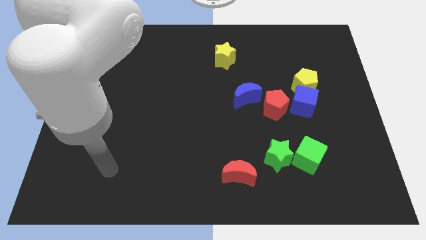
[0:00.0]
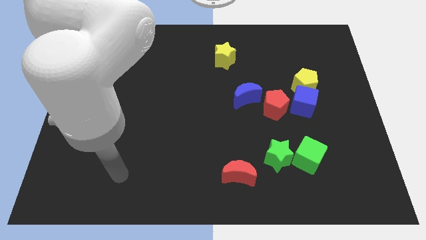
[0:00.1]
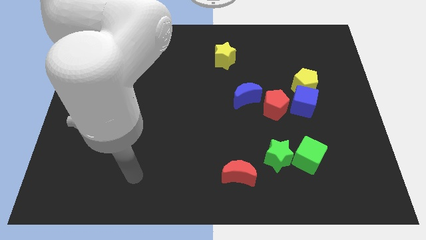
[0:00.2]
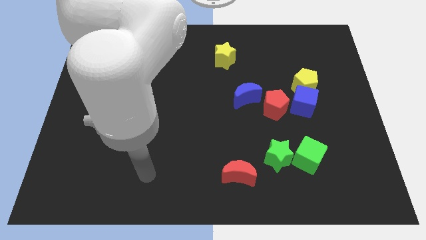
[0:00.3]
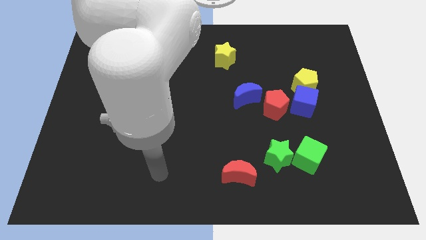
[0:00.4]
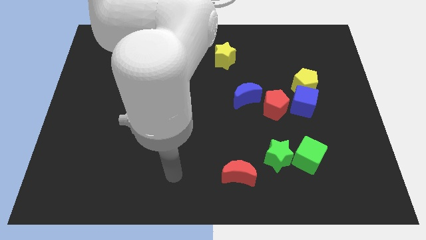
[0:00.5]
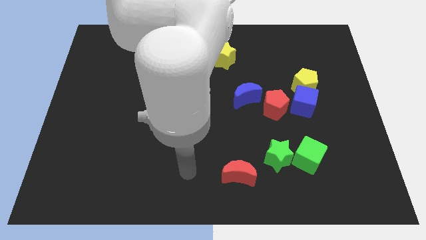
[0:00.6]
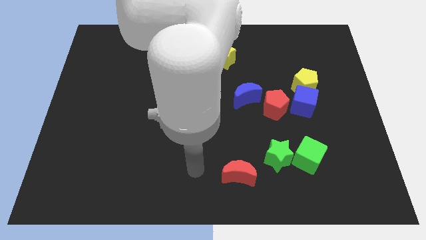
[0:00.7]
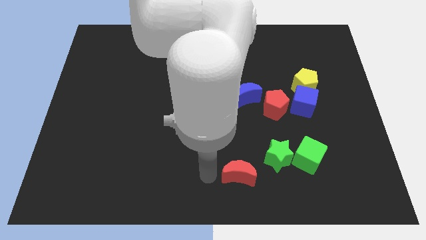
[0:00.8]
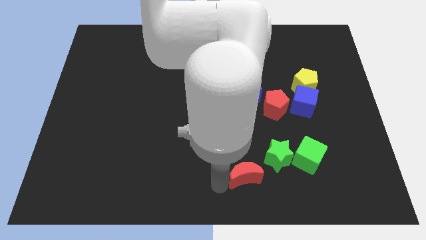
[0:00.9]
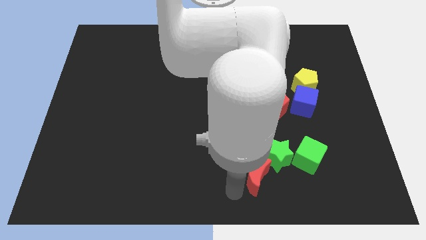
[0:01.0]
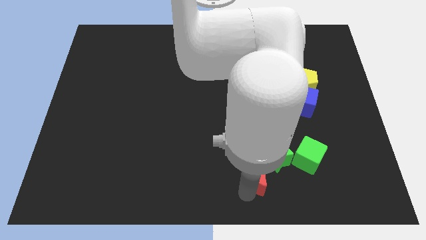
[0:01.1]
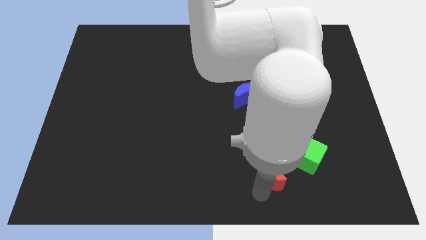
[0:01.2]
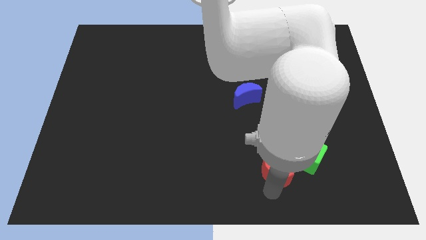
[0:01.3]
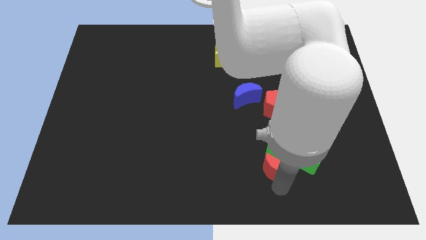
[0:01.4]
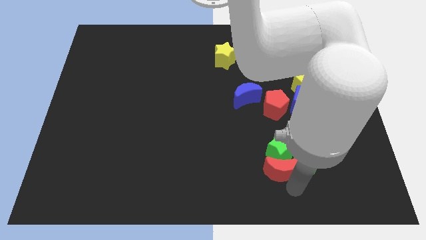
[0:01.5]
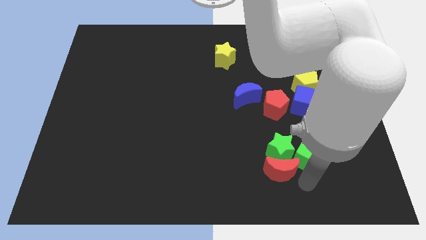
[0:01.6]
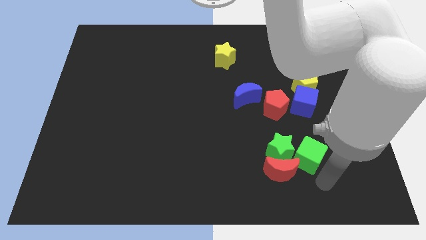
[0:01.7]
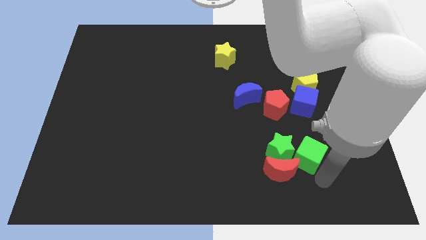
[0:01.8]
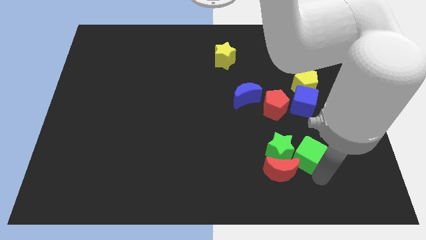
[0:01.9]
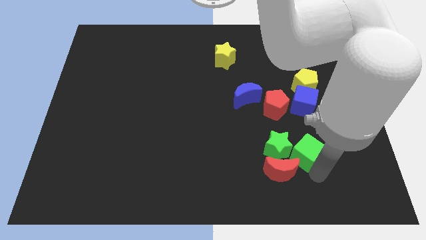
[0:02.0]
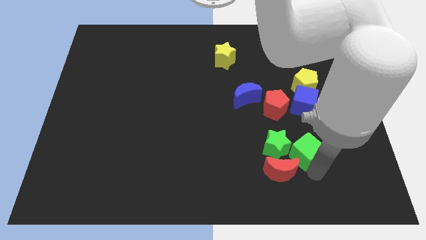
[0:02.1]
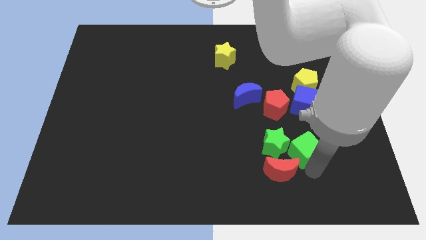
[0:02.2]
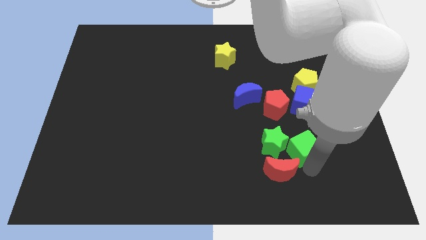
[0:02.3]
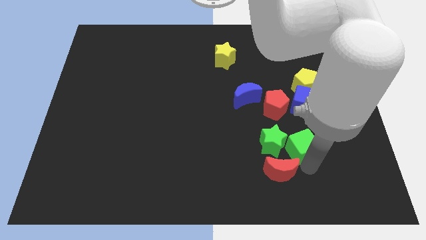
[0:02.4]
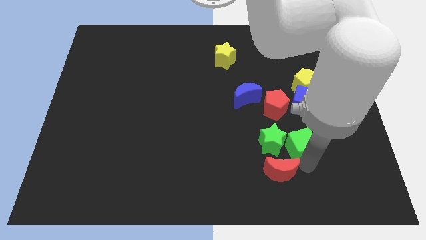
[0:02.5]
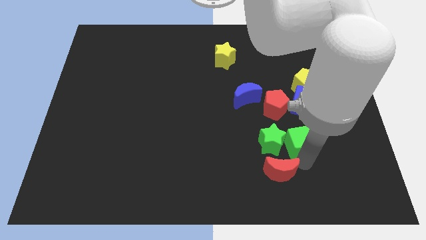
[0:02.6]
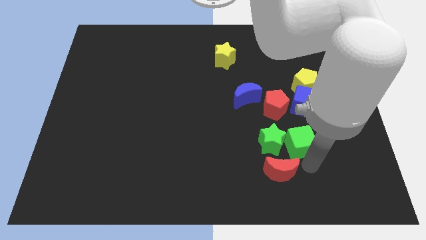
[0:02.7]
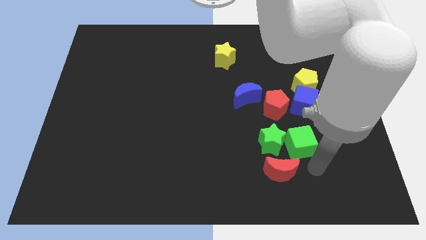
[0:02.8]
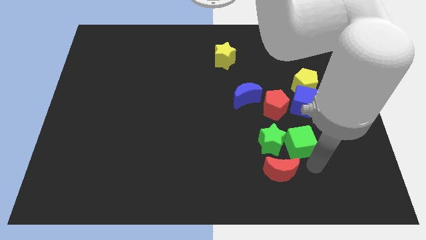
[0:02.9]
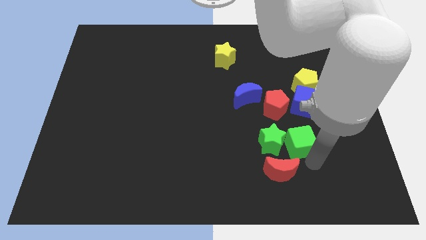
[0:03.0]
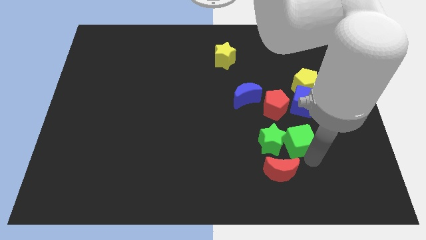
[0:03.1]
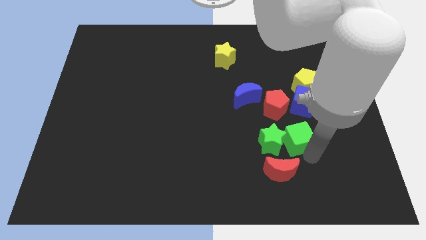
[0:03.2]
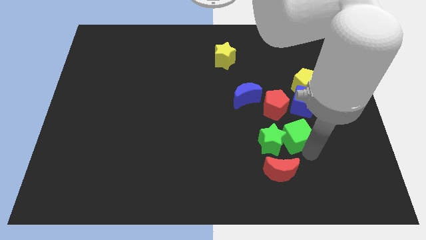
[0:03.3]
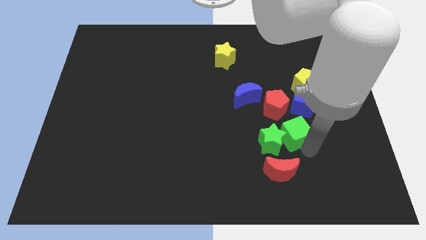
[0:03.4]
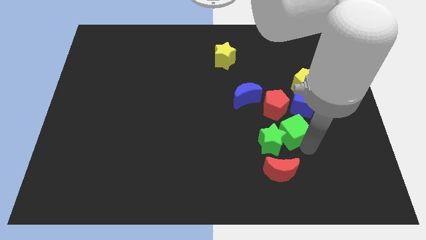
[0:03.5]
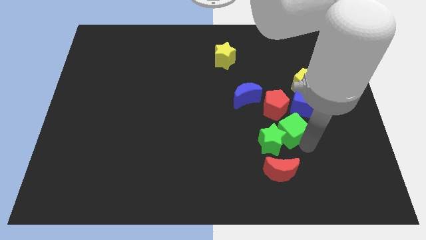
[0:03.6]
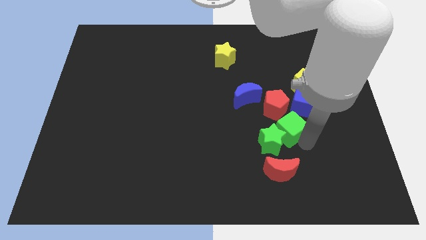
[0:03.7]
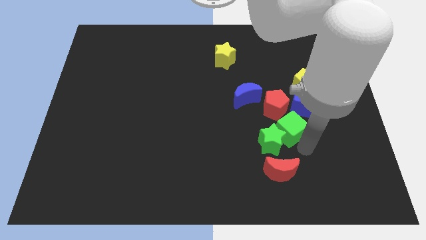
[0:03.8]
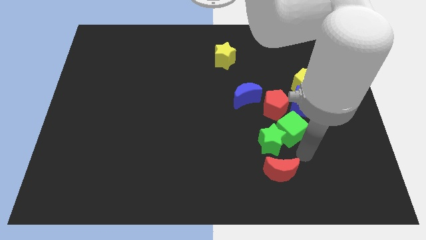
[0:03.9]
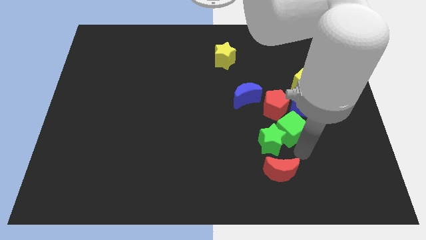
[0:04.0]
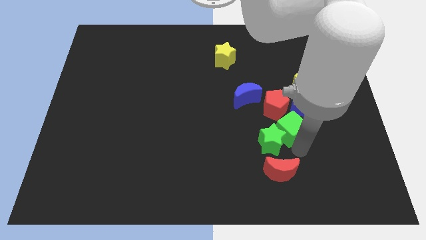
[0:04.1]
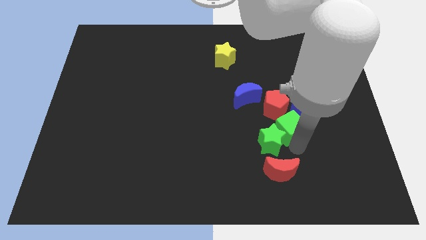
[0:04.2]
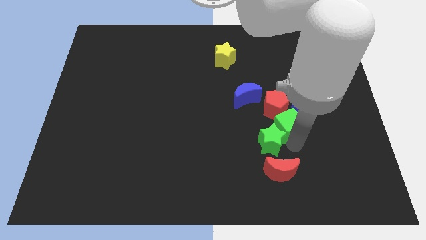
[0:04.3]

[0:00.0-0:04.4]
slide the green cube to the red pentagon

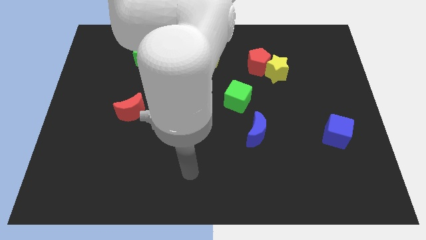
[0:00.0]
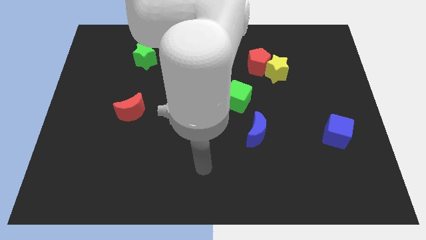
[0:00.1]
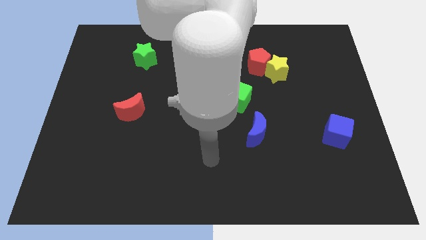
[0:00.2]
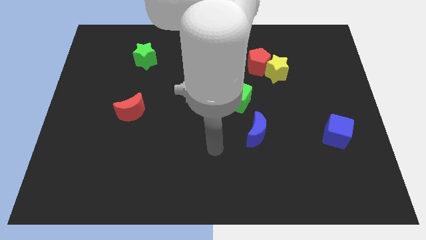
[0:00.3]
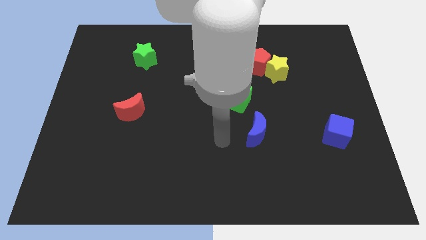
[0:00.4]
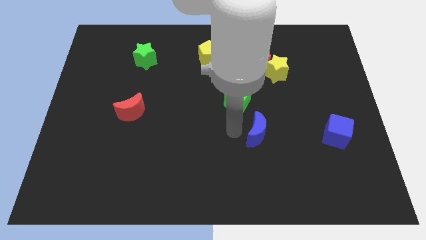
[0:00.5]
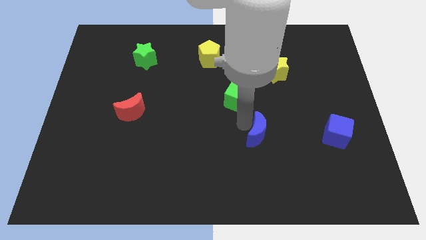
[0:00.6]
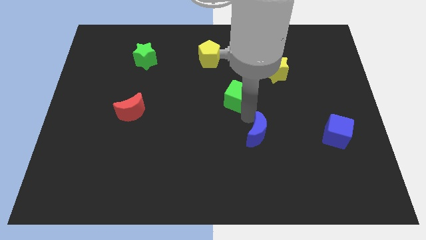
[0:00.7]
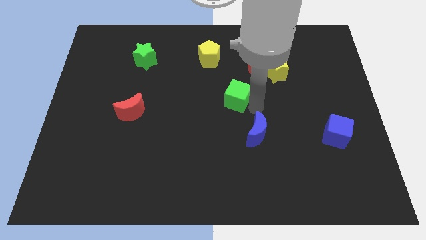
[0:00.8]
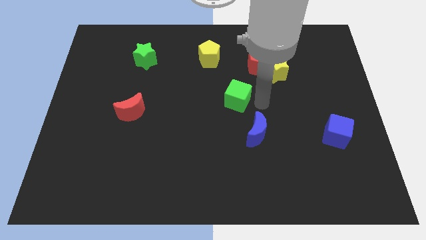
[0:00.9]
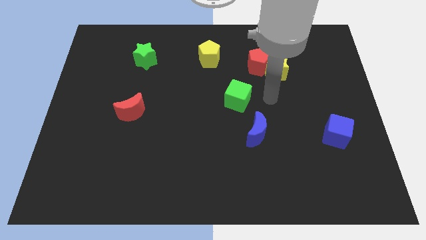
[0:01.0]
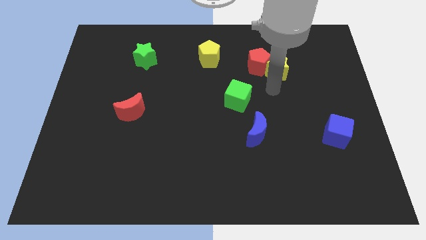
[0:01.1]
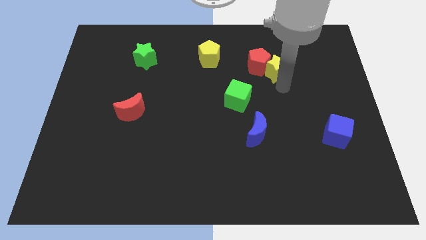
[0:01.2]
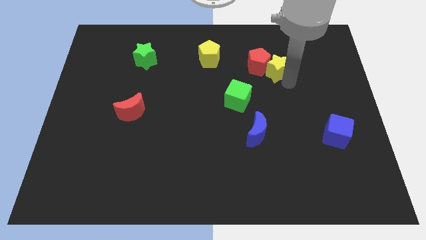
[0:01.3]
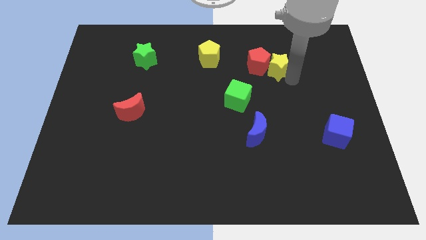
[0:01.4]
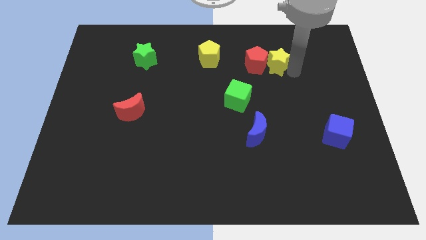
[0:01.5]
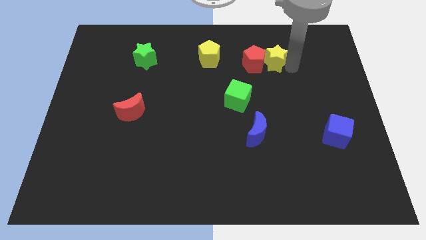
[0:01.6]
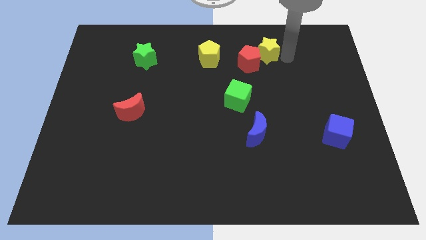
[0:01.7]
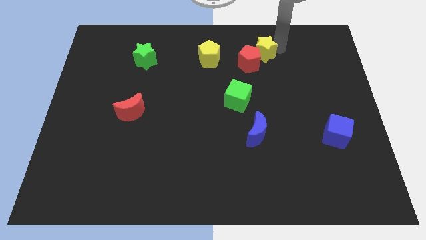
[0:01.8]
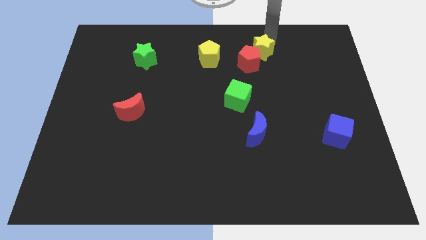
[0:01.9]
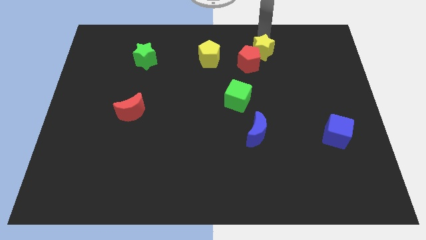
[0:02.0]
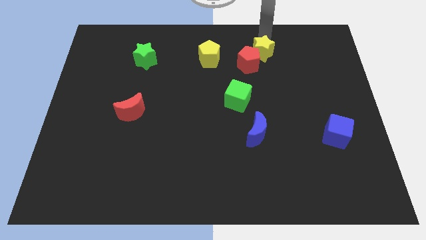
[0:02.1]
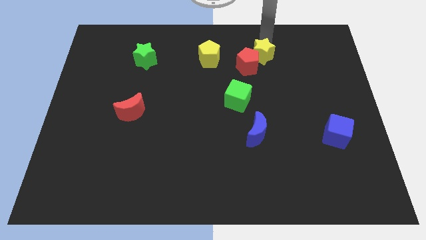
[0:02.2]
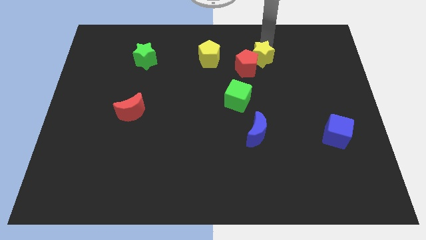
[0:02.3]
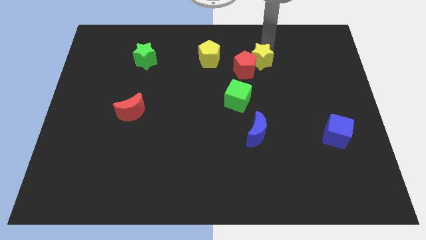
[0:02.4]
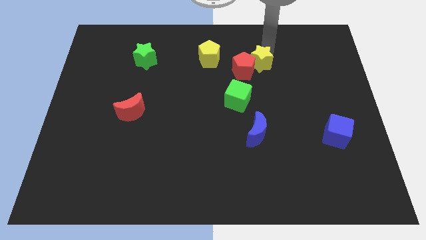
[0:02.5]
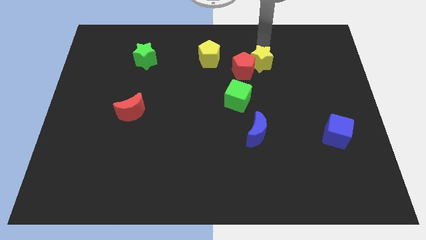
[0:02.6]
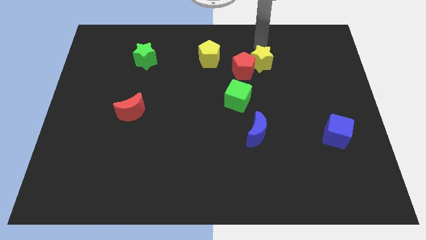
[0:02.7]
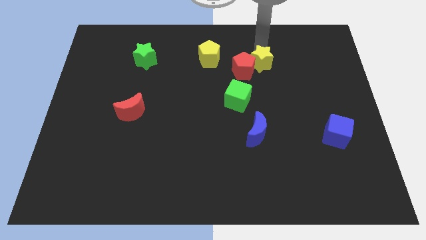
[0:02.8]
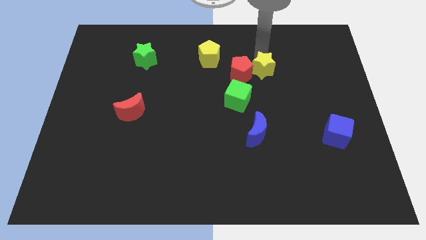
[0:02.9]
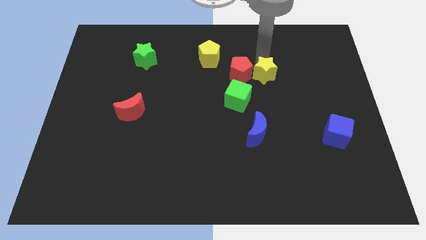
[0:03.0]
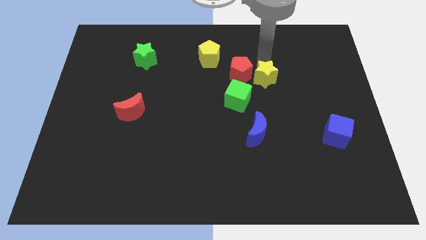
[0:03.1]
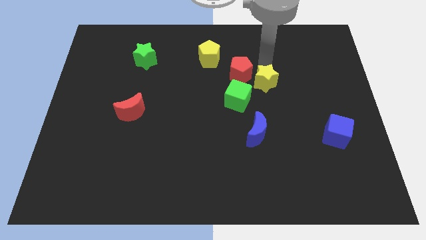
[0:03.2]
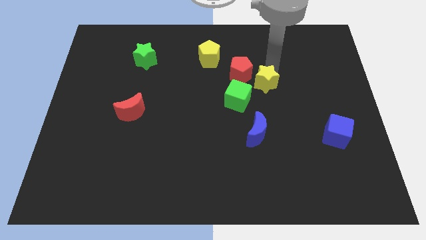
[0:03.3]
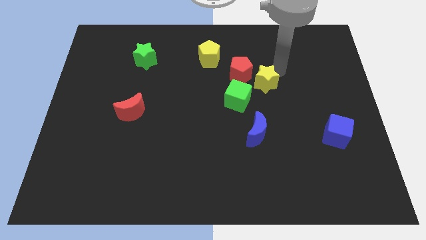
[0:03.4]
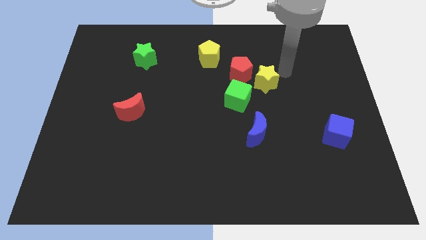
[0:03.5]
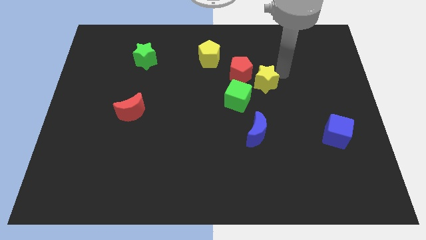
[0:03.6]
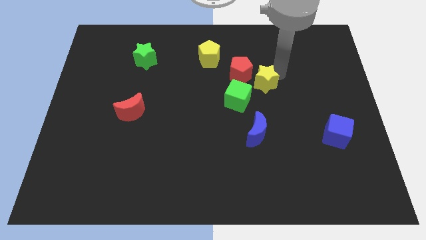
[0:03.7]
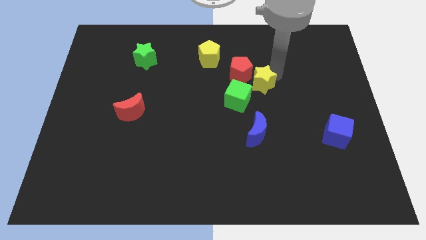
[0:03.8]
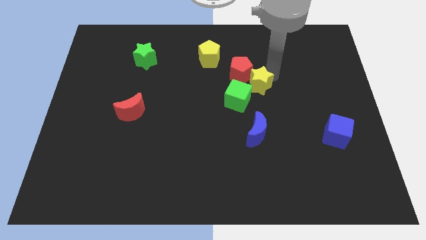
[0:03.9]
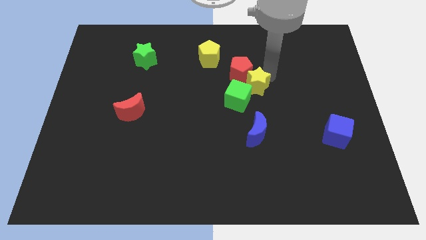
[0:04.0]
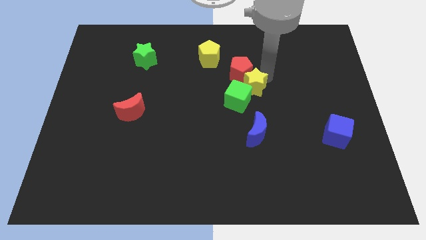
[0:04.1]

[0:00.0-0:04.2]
put the yellow star close to the green cube
